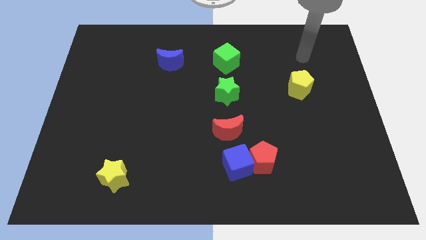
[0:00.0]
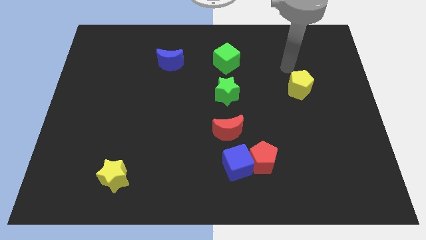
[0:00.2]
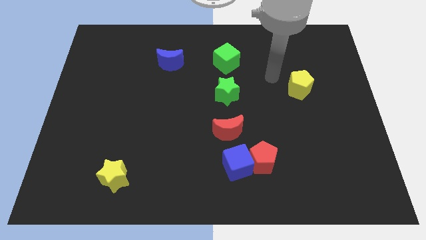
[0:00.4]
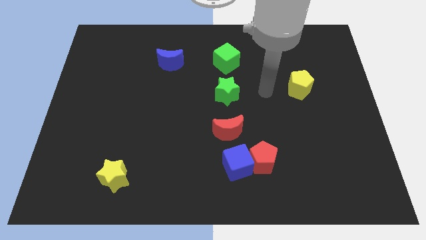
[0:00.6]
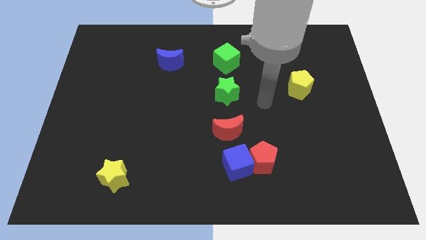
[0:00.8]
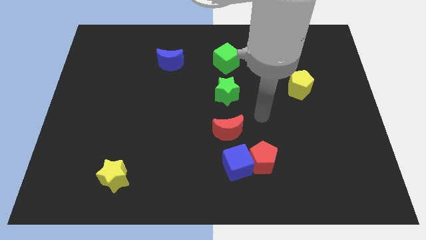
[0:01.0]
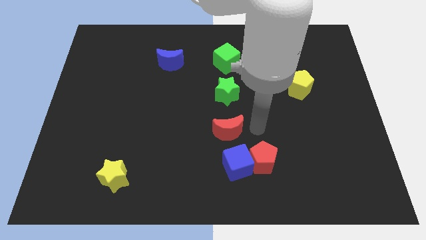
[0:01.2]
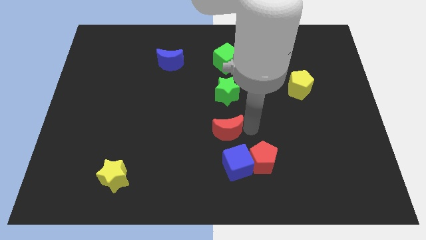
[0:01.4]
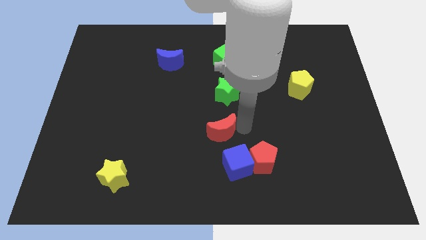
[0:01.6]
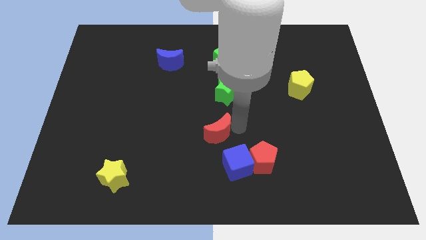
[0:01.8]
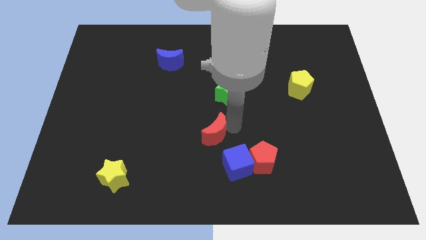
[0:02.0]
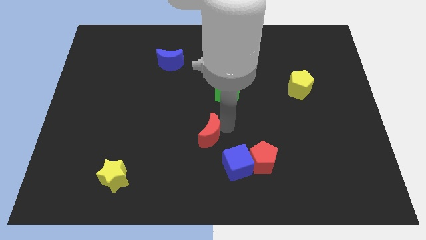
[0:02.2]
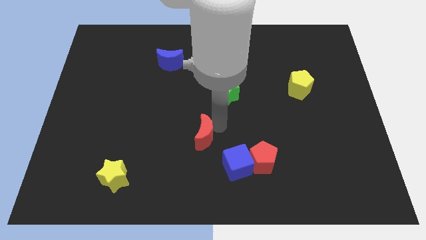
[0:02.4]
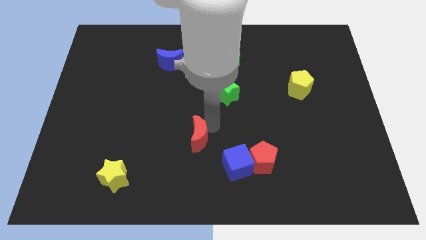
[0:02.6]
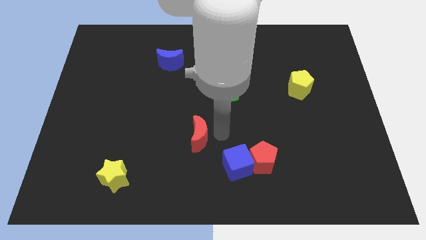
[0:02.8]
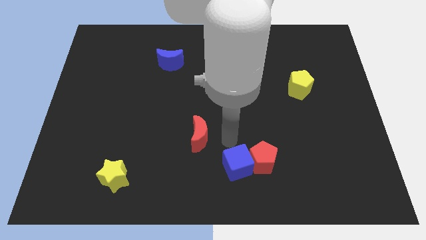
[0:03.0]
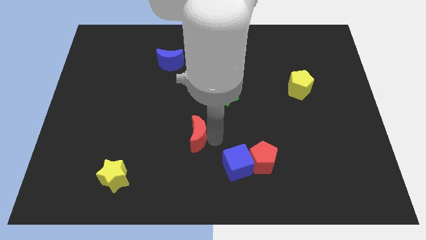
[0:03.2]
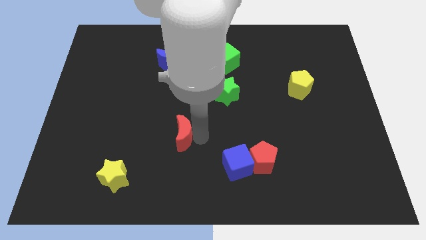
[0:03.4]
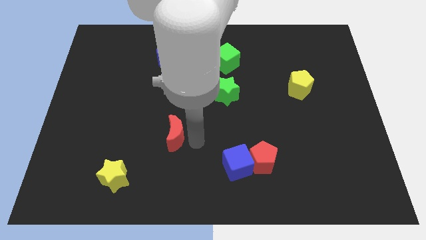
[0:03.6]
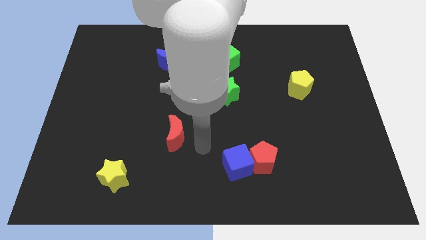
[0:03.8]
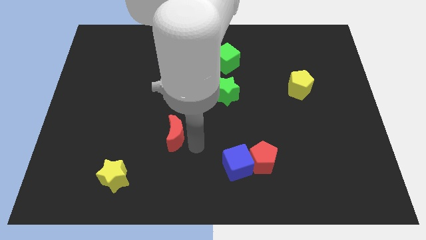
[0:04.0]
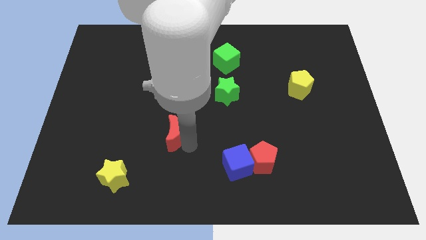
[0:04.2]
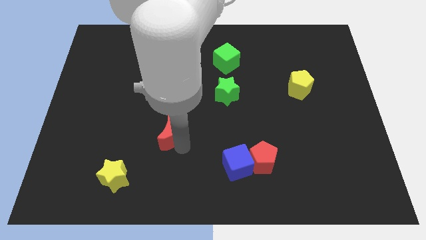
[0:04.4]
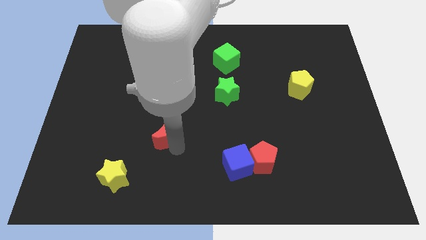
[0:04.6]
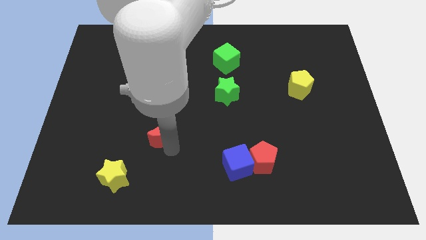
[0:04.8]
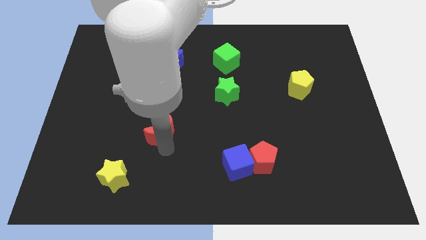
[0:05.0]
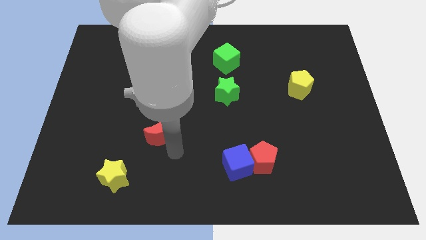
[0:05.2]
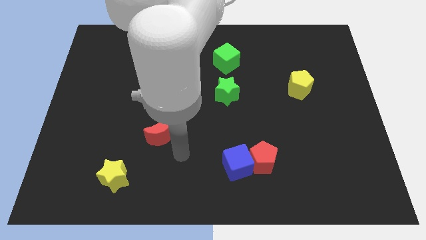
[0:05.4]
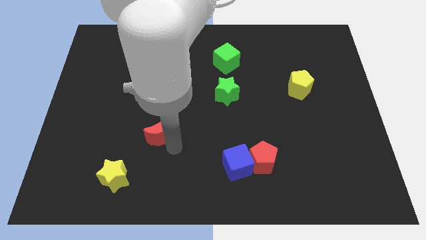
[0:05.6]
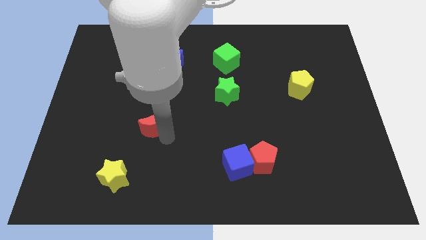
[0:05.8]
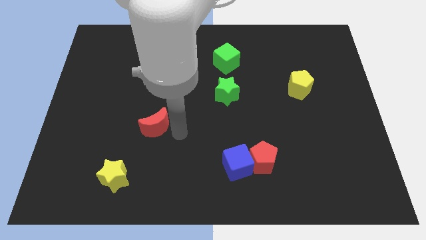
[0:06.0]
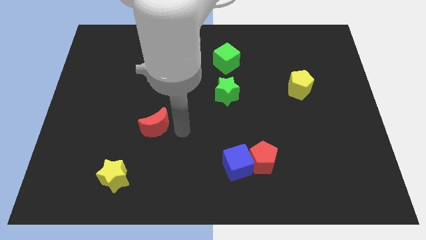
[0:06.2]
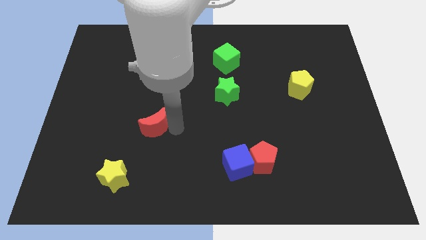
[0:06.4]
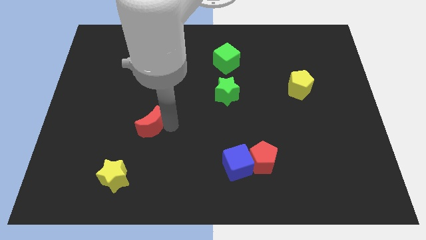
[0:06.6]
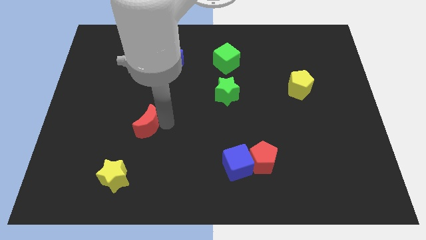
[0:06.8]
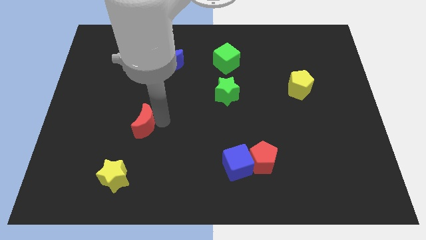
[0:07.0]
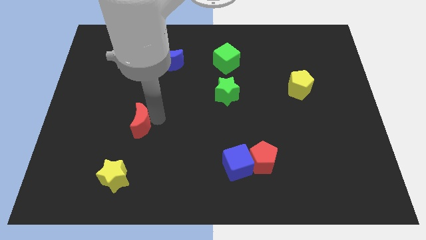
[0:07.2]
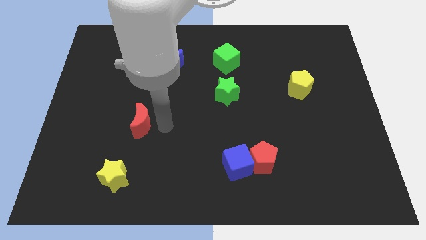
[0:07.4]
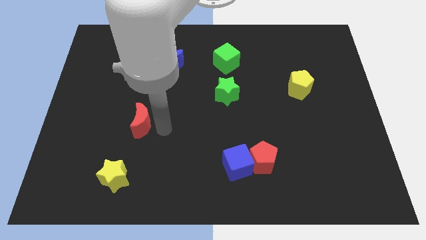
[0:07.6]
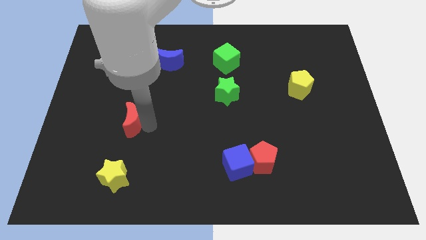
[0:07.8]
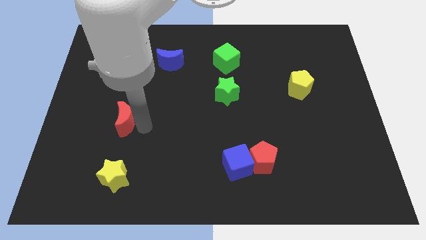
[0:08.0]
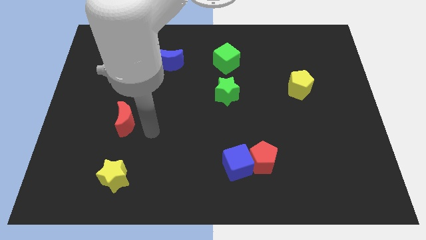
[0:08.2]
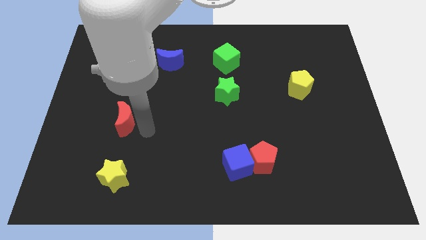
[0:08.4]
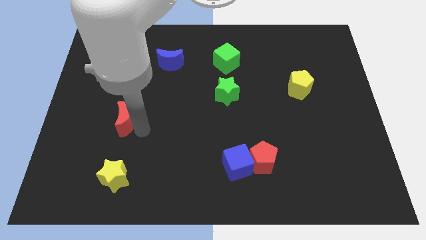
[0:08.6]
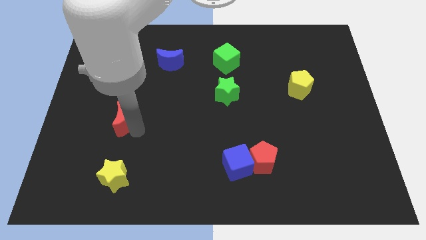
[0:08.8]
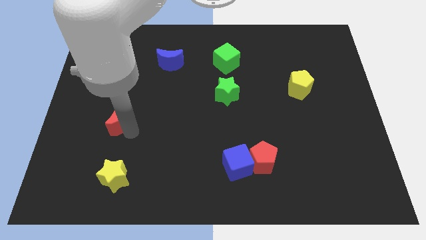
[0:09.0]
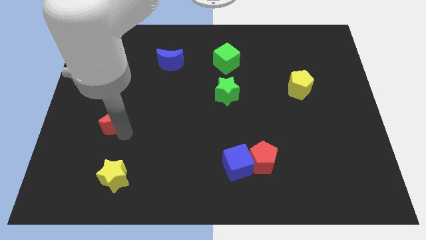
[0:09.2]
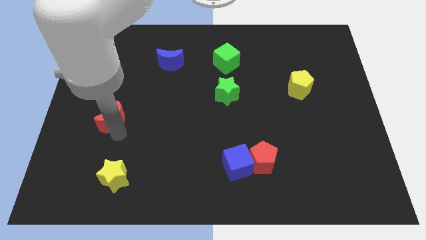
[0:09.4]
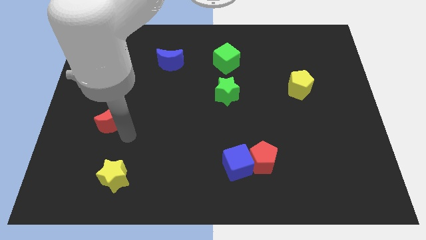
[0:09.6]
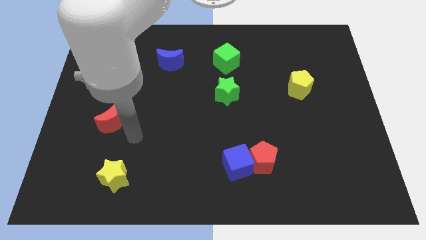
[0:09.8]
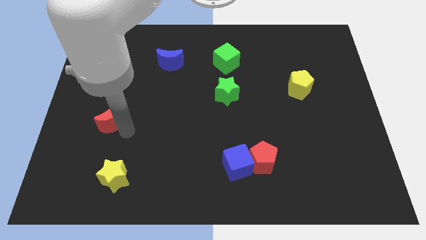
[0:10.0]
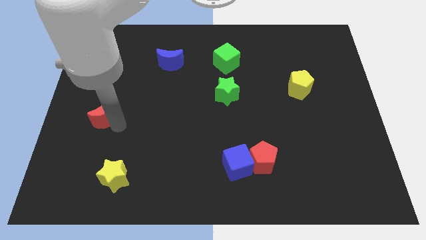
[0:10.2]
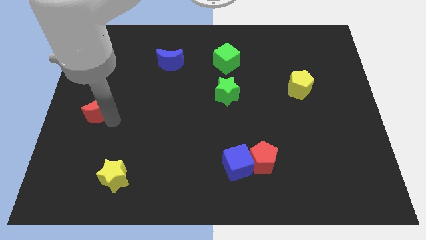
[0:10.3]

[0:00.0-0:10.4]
push the red moon to the left side of the board

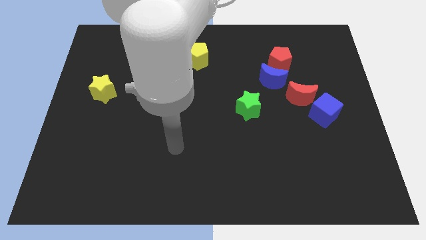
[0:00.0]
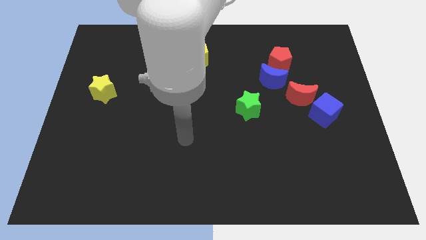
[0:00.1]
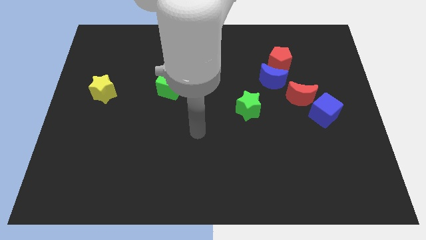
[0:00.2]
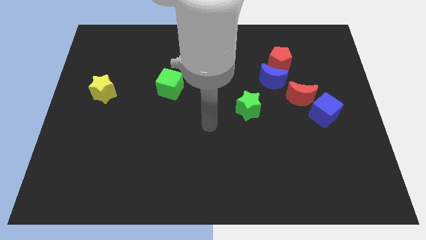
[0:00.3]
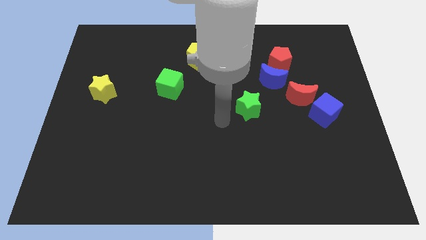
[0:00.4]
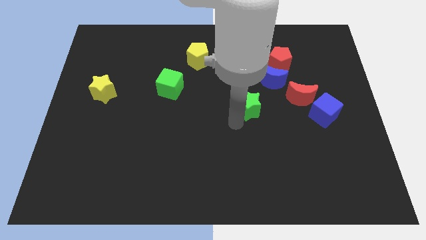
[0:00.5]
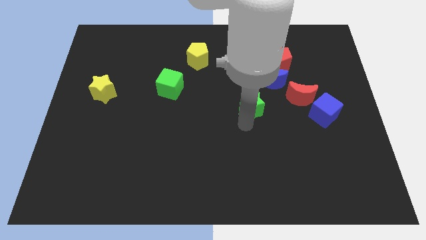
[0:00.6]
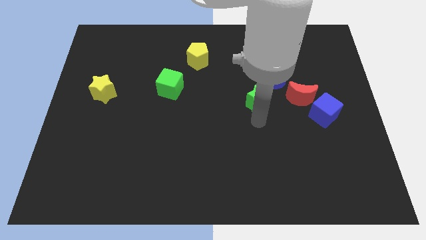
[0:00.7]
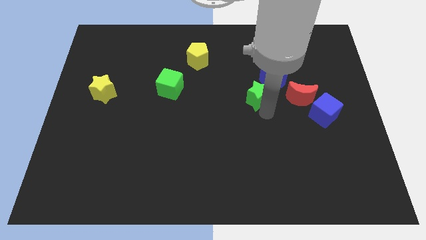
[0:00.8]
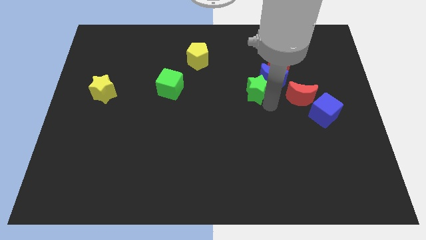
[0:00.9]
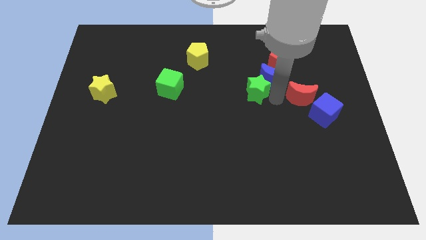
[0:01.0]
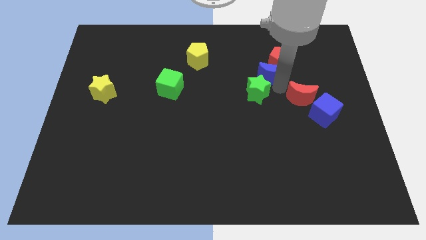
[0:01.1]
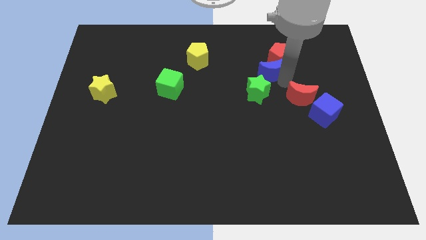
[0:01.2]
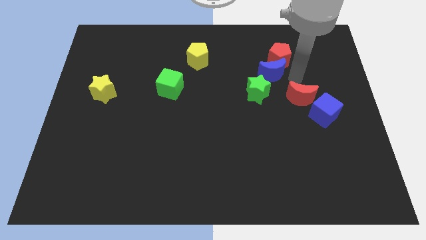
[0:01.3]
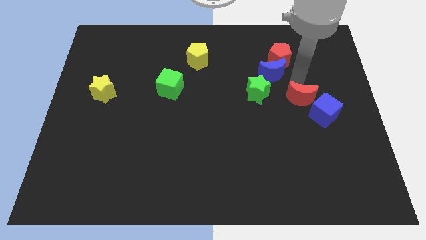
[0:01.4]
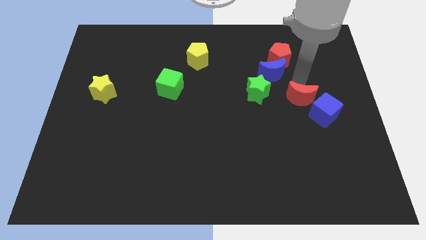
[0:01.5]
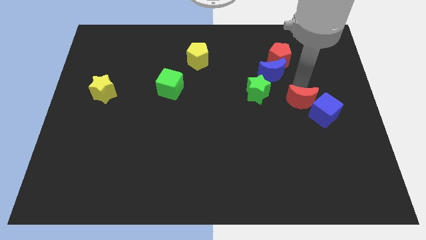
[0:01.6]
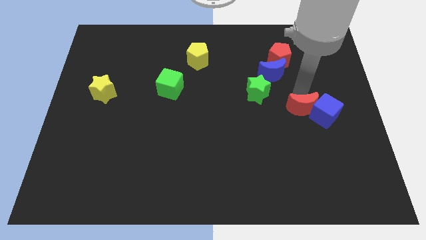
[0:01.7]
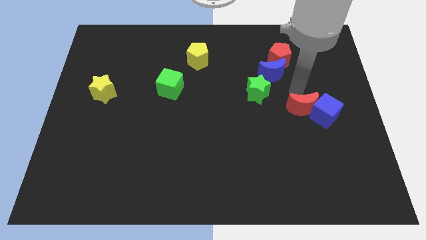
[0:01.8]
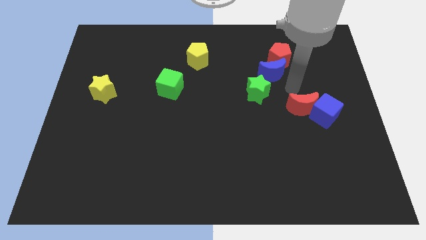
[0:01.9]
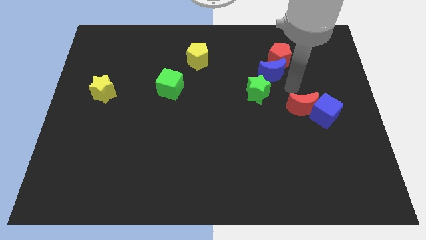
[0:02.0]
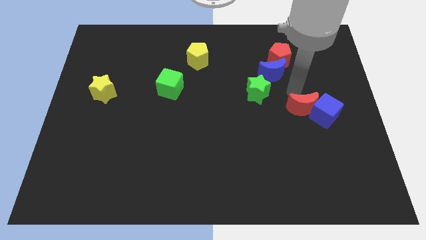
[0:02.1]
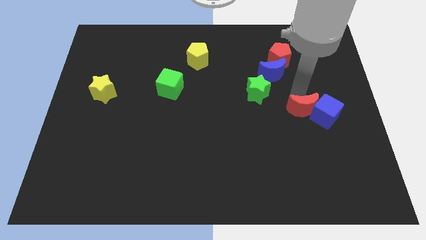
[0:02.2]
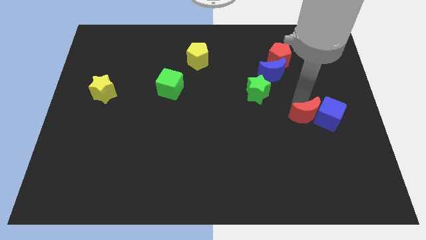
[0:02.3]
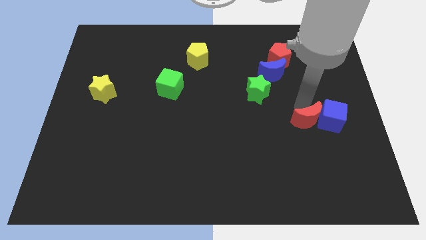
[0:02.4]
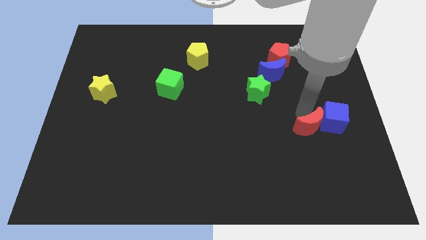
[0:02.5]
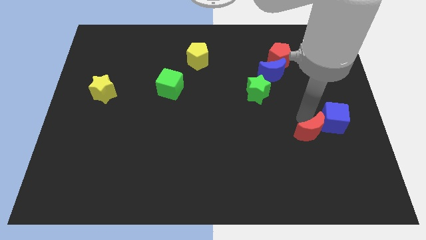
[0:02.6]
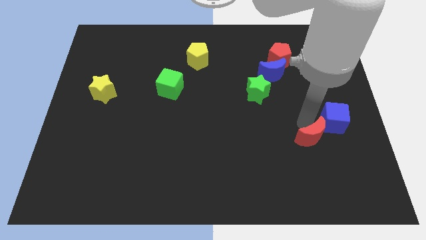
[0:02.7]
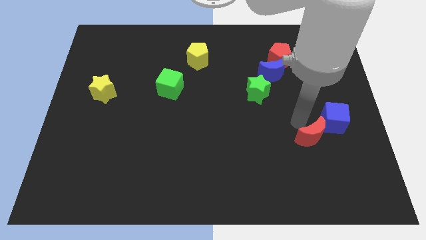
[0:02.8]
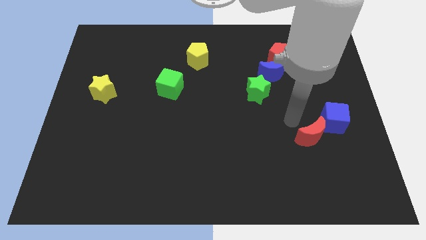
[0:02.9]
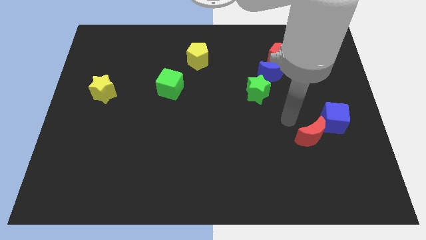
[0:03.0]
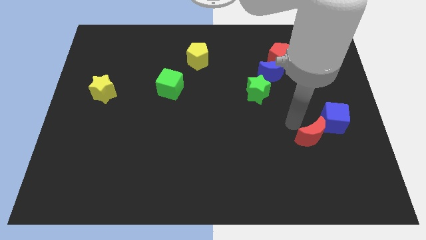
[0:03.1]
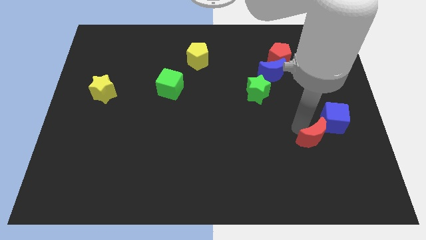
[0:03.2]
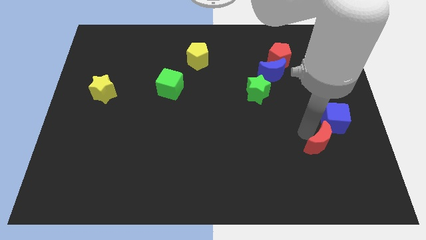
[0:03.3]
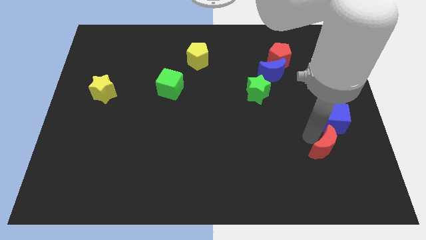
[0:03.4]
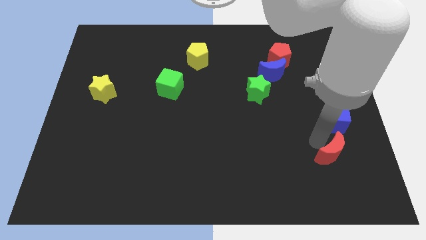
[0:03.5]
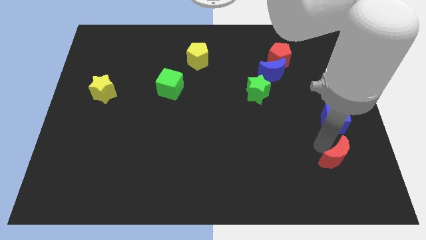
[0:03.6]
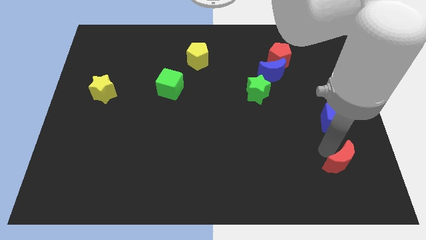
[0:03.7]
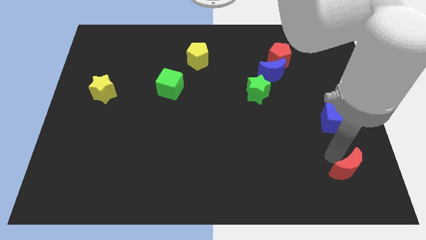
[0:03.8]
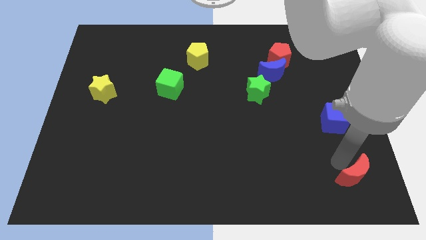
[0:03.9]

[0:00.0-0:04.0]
move the red moon to the bottom right
